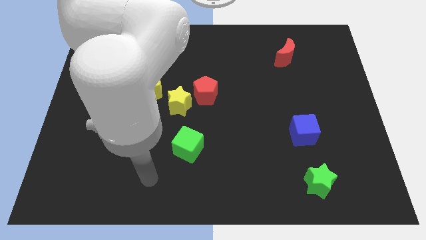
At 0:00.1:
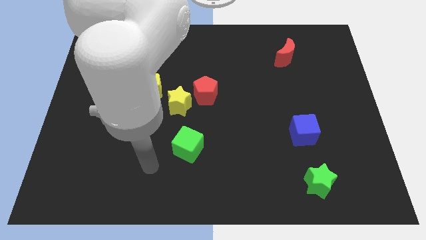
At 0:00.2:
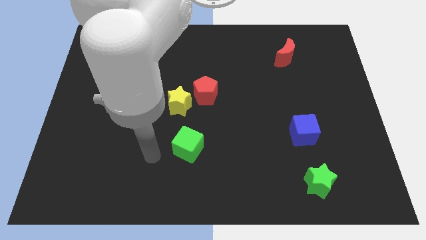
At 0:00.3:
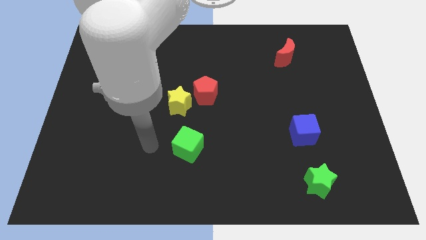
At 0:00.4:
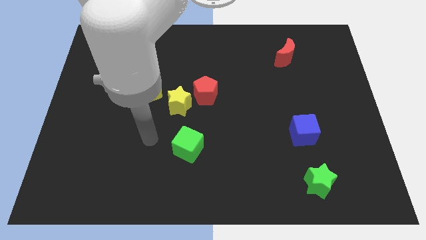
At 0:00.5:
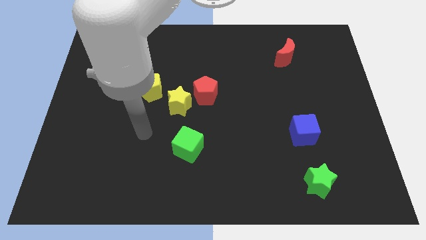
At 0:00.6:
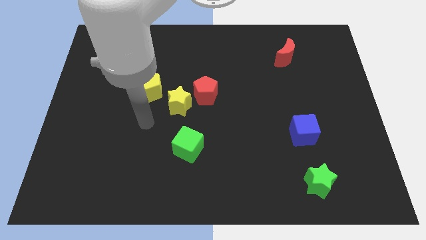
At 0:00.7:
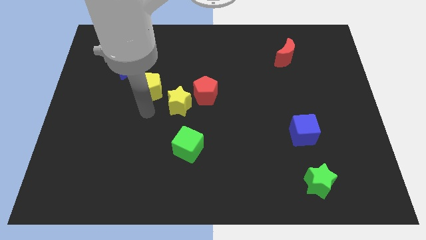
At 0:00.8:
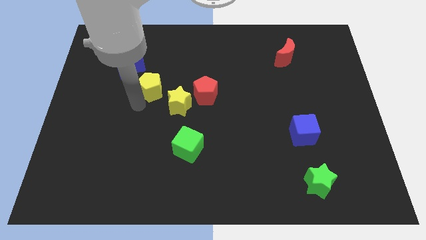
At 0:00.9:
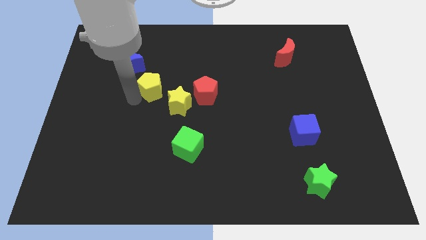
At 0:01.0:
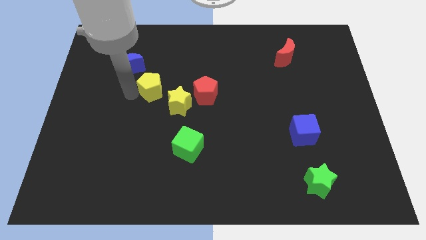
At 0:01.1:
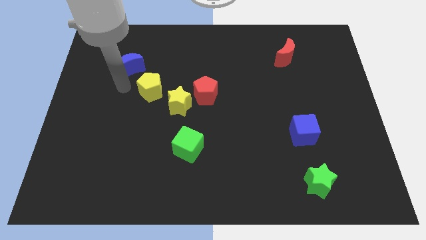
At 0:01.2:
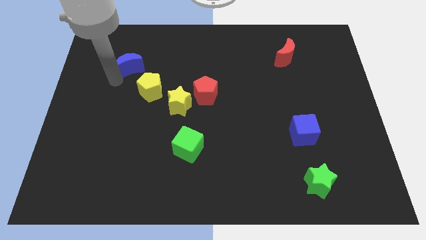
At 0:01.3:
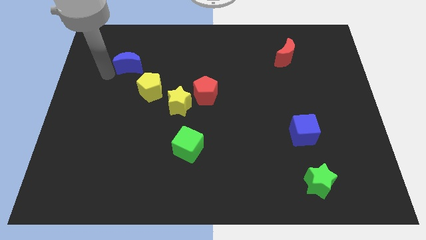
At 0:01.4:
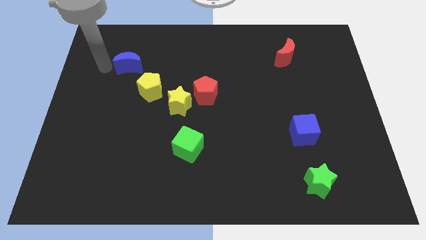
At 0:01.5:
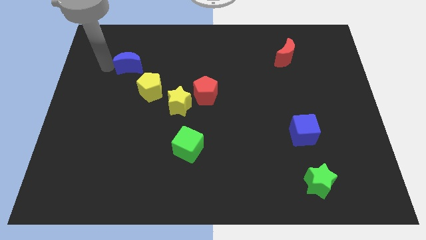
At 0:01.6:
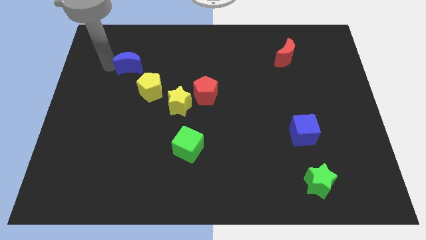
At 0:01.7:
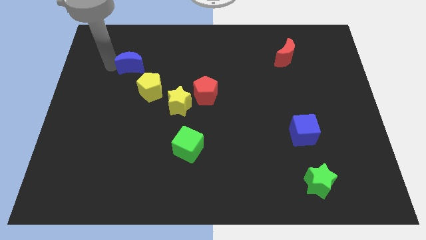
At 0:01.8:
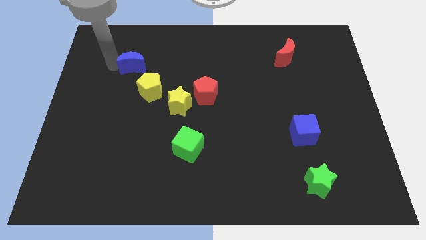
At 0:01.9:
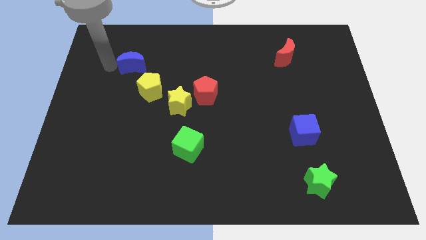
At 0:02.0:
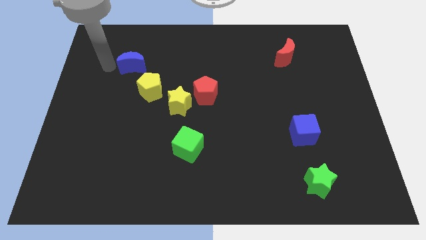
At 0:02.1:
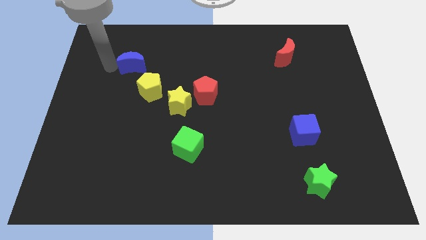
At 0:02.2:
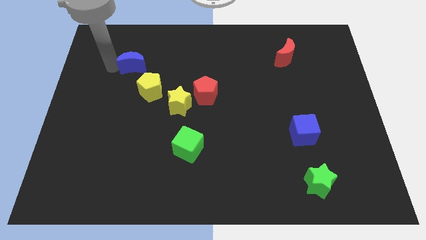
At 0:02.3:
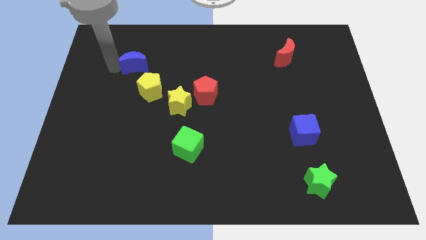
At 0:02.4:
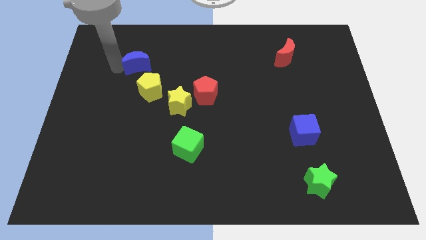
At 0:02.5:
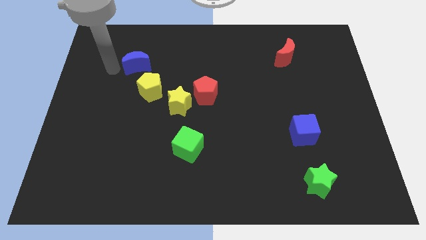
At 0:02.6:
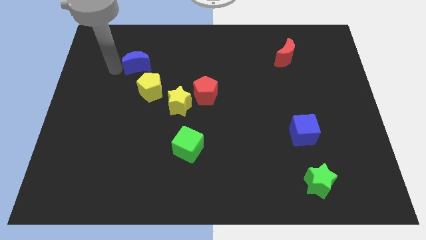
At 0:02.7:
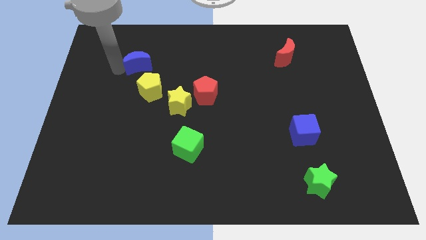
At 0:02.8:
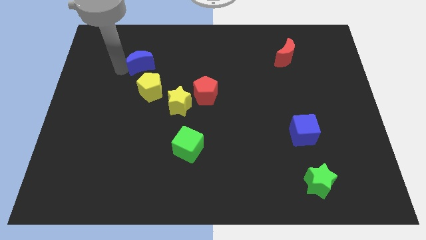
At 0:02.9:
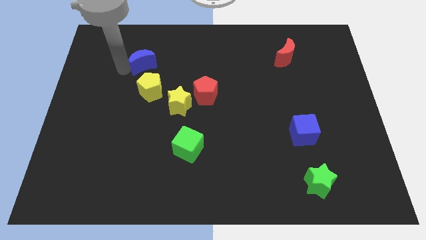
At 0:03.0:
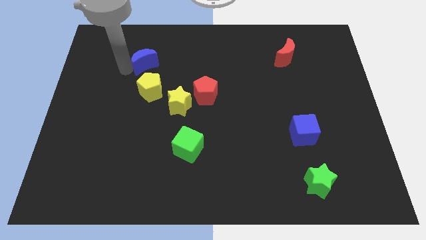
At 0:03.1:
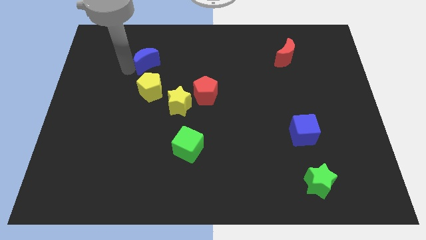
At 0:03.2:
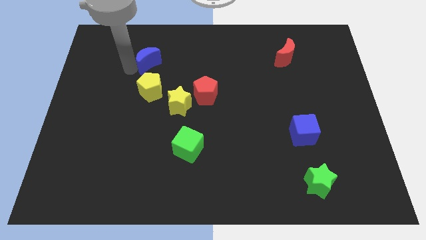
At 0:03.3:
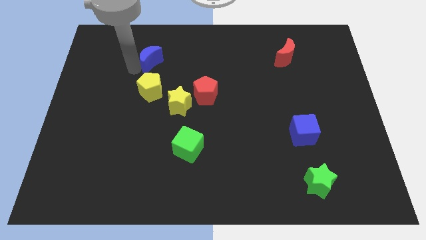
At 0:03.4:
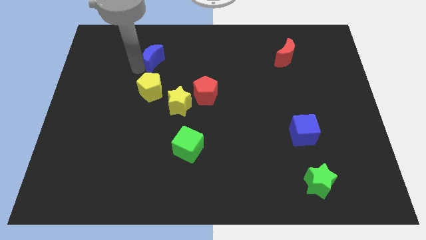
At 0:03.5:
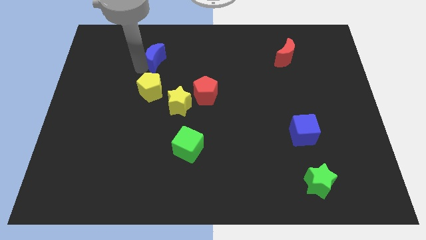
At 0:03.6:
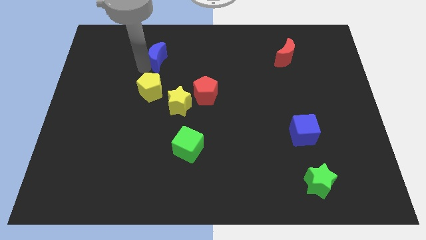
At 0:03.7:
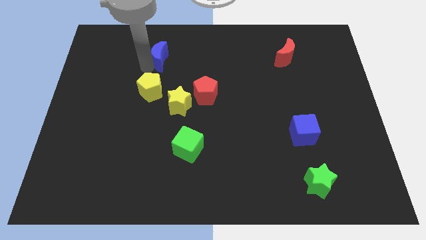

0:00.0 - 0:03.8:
push the blue moon to the right somewhat

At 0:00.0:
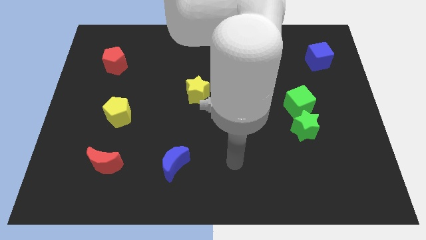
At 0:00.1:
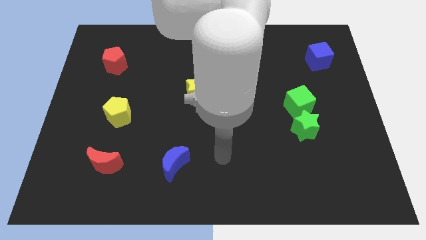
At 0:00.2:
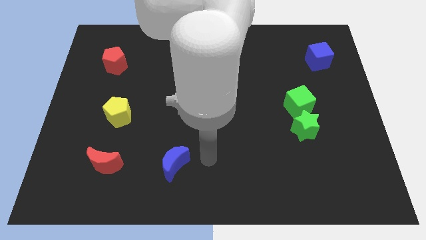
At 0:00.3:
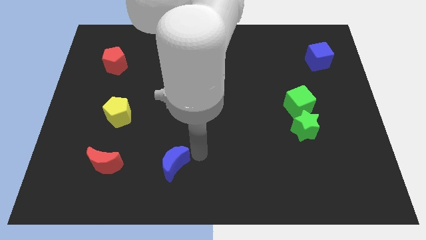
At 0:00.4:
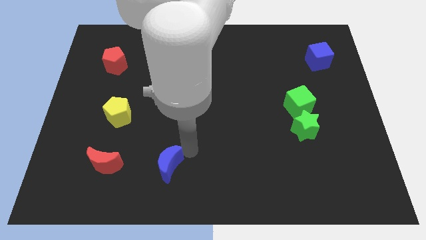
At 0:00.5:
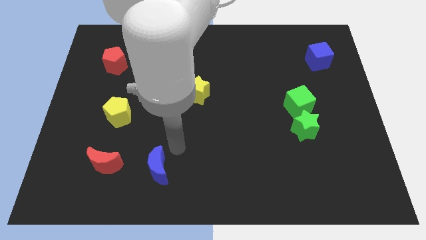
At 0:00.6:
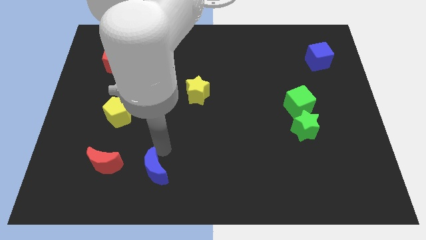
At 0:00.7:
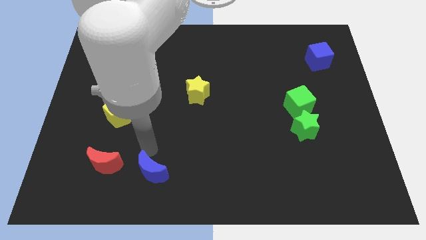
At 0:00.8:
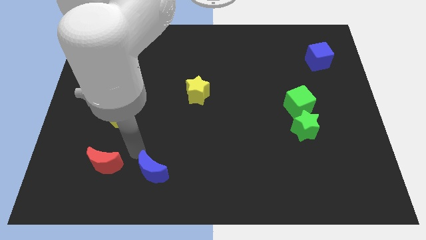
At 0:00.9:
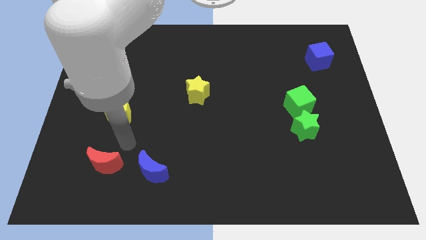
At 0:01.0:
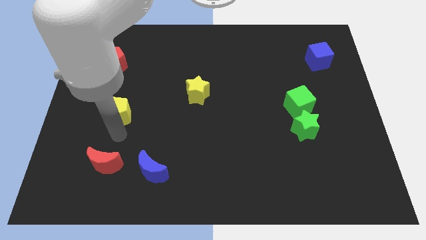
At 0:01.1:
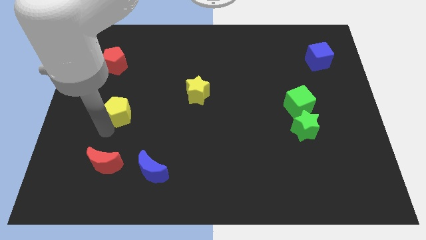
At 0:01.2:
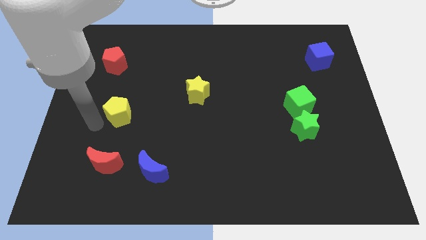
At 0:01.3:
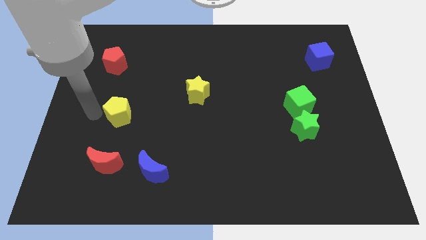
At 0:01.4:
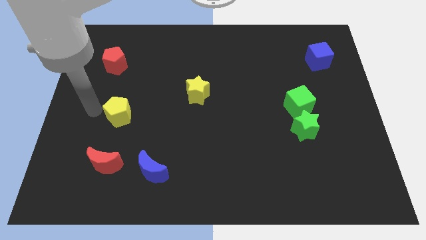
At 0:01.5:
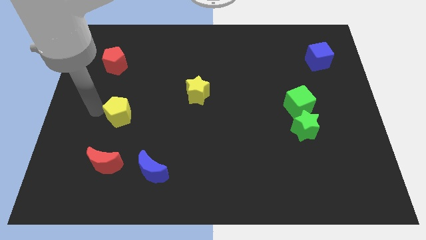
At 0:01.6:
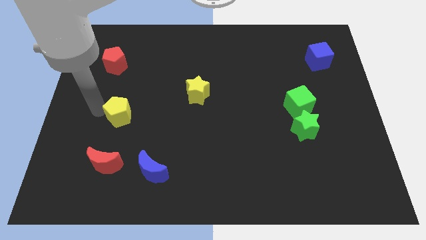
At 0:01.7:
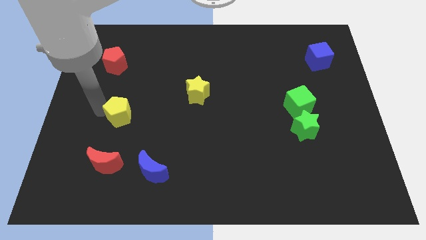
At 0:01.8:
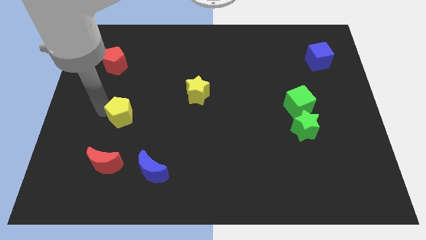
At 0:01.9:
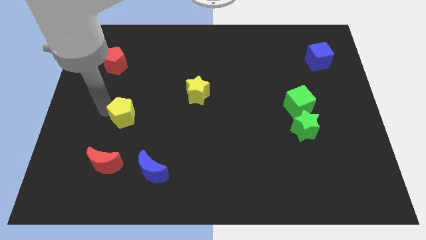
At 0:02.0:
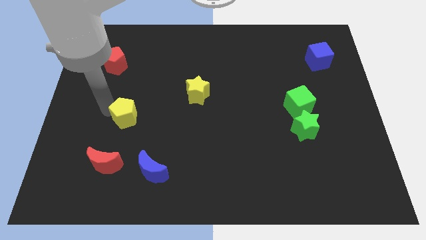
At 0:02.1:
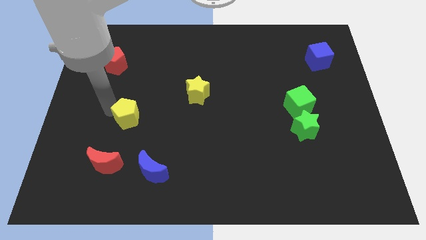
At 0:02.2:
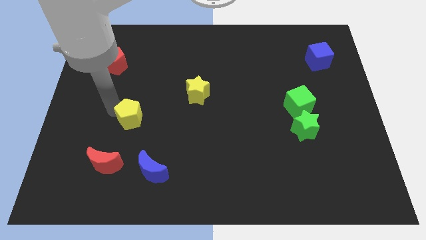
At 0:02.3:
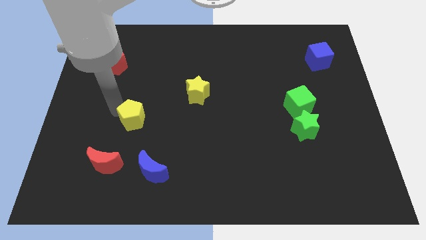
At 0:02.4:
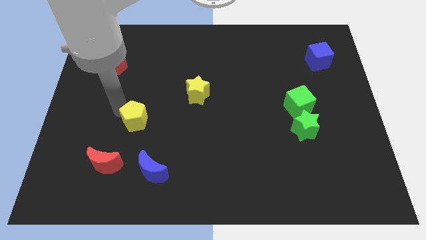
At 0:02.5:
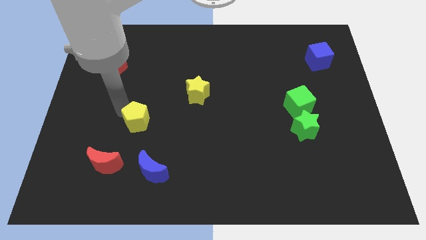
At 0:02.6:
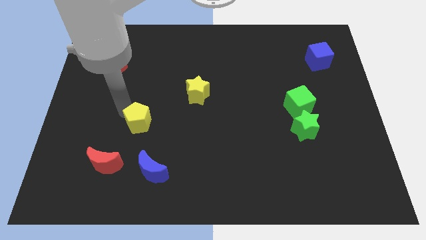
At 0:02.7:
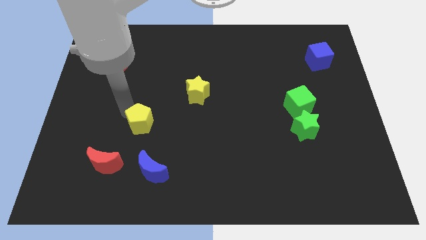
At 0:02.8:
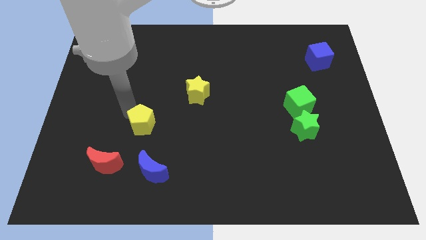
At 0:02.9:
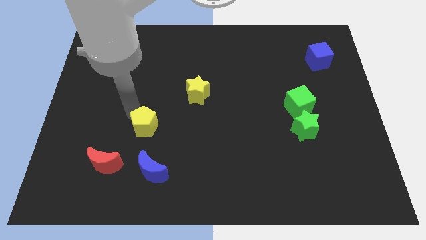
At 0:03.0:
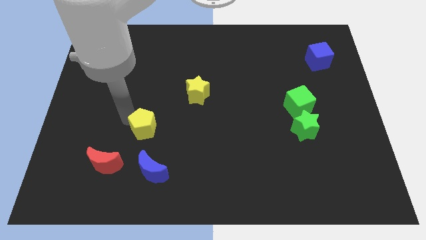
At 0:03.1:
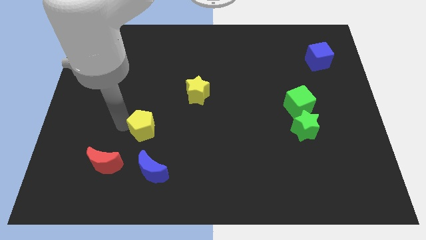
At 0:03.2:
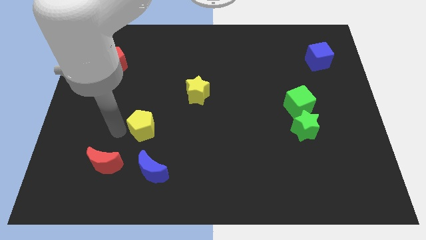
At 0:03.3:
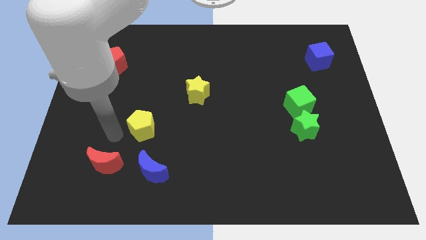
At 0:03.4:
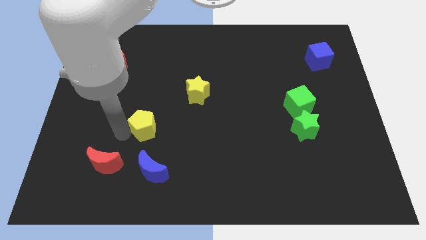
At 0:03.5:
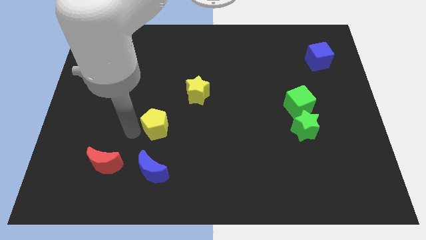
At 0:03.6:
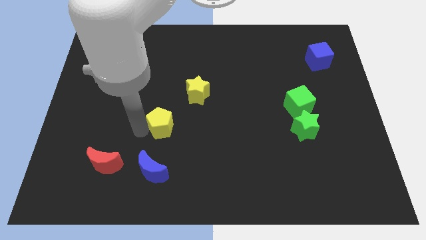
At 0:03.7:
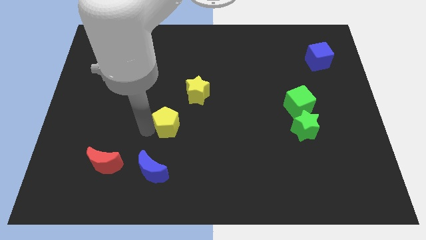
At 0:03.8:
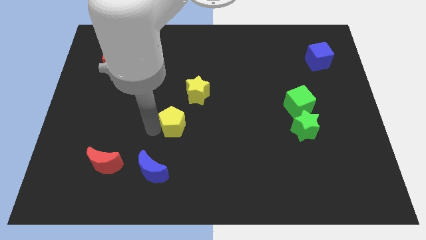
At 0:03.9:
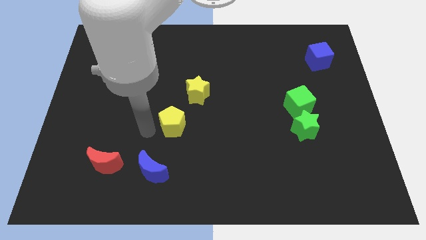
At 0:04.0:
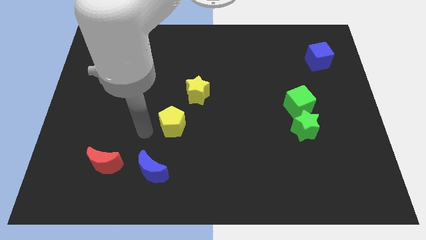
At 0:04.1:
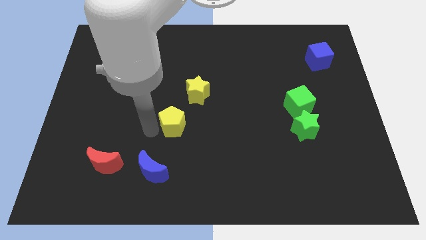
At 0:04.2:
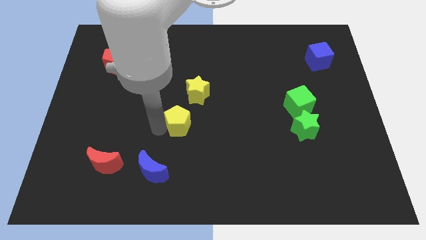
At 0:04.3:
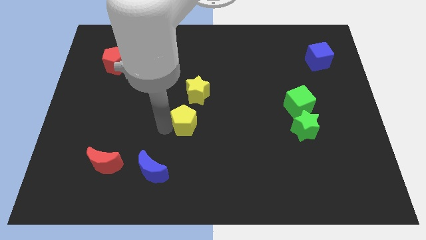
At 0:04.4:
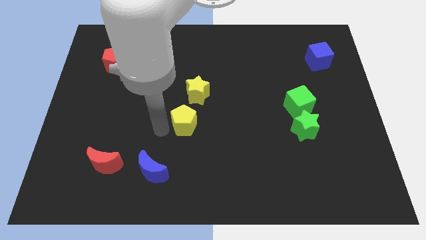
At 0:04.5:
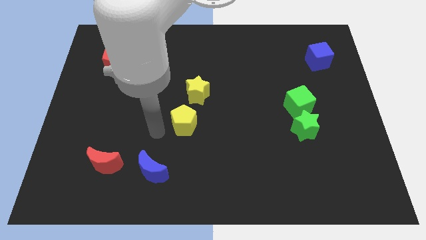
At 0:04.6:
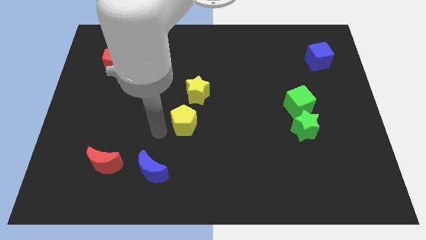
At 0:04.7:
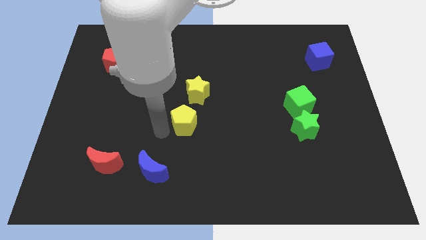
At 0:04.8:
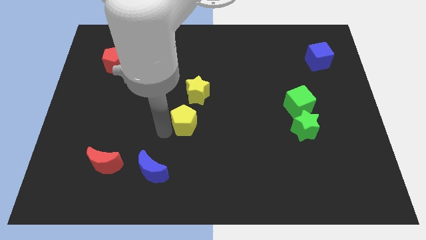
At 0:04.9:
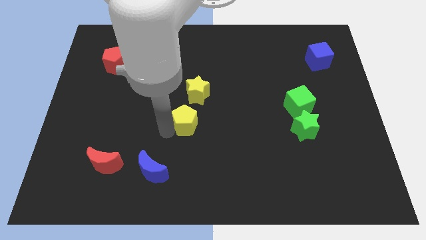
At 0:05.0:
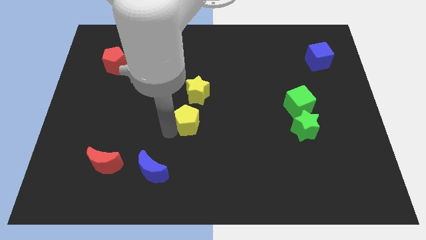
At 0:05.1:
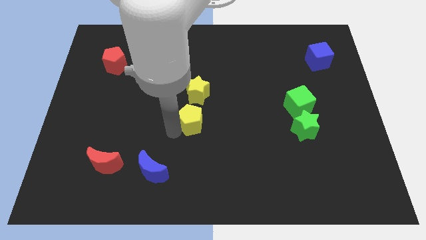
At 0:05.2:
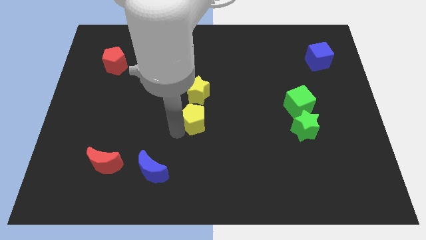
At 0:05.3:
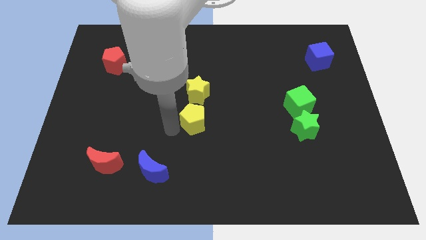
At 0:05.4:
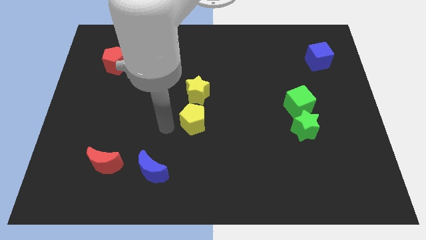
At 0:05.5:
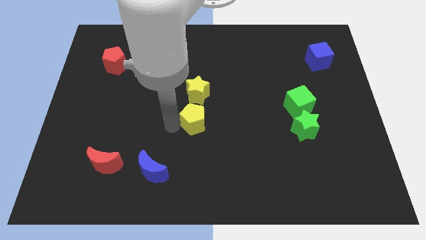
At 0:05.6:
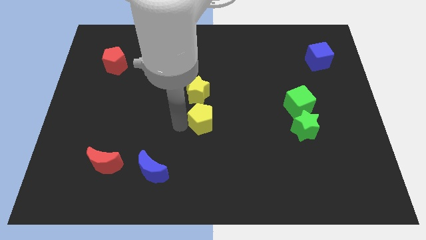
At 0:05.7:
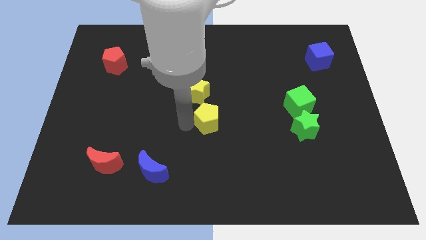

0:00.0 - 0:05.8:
push the yellow pentagon right
